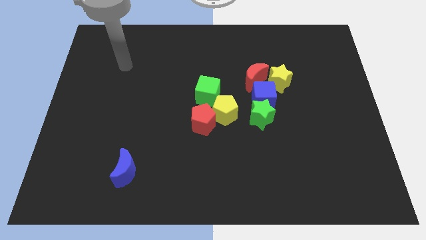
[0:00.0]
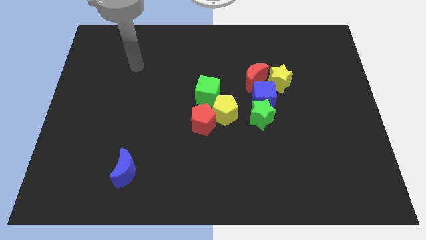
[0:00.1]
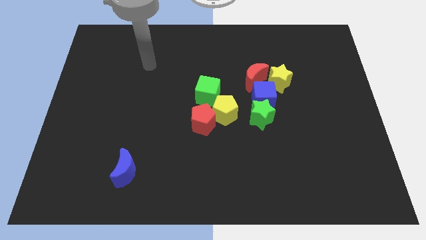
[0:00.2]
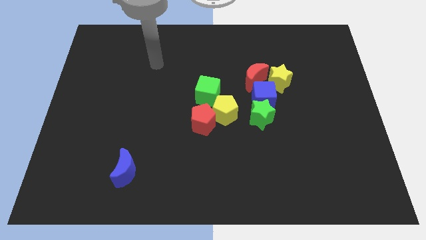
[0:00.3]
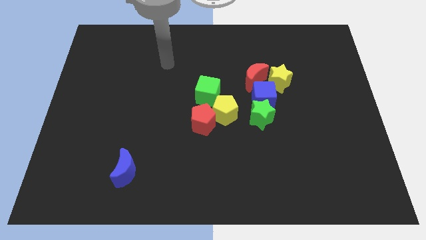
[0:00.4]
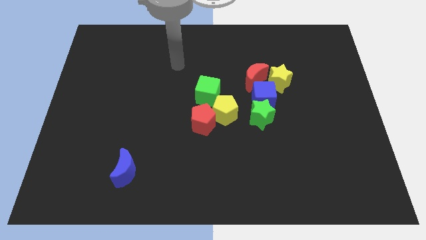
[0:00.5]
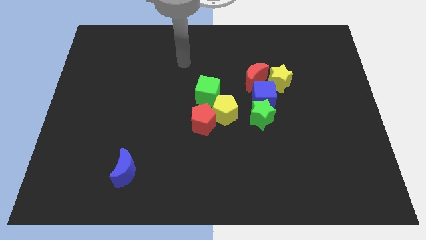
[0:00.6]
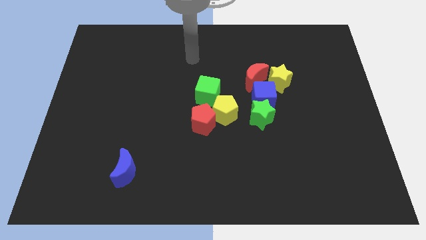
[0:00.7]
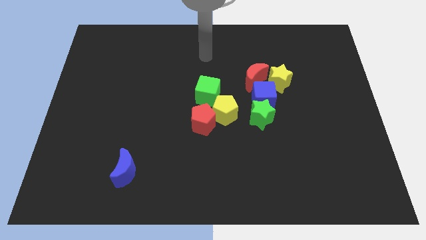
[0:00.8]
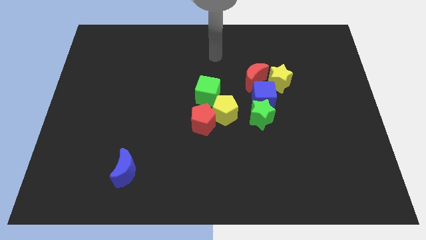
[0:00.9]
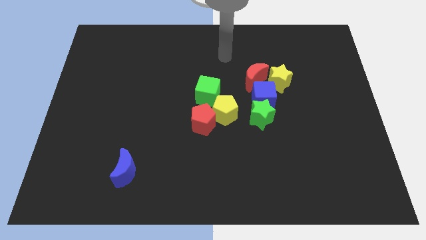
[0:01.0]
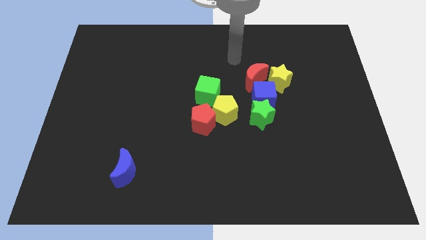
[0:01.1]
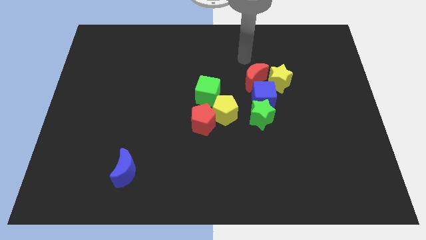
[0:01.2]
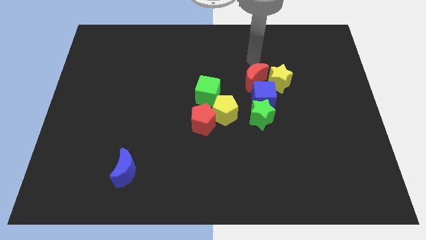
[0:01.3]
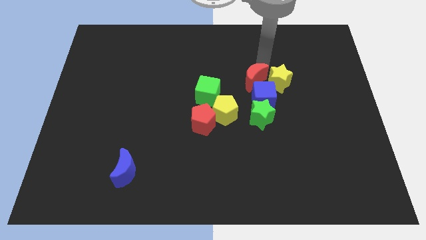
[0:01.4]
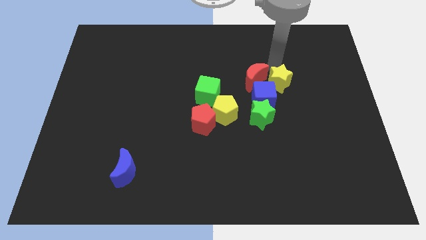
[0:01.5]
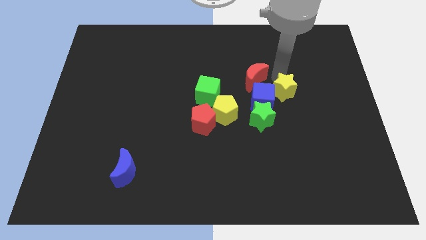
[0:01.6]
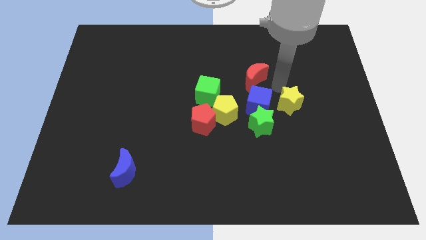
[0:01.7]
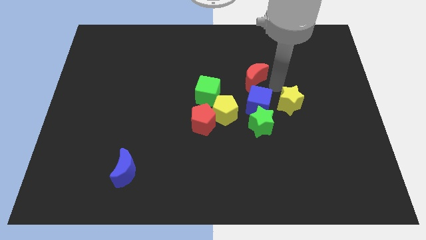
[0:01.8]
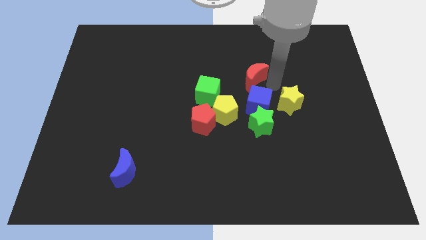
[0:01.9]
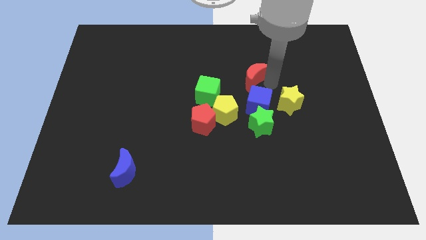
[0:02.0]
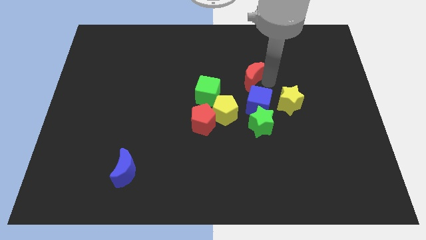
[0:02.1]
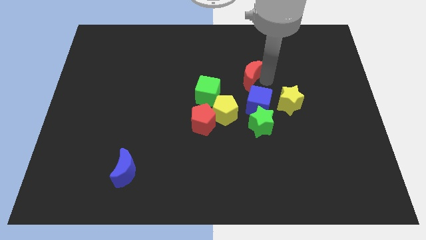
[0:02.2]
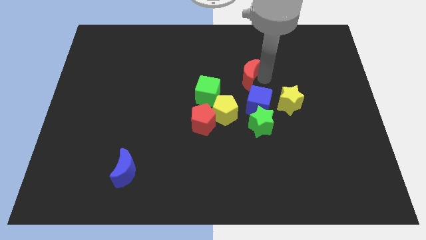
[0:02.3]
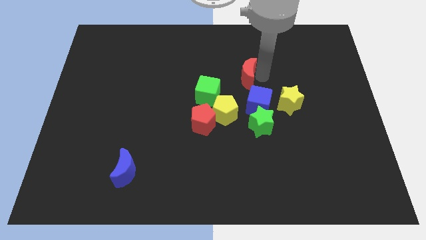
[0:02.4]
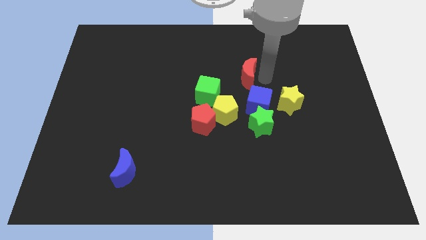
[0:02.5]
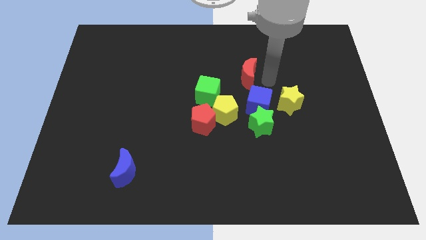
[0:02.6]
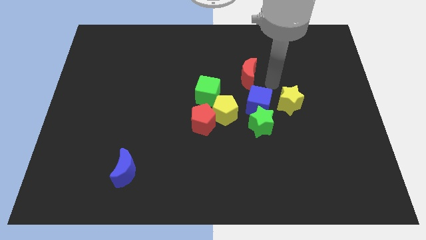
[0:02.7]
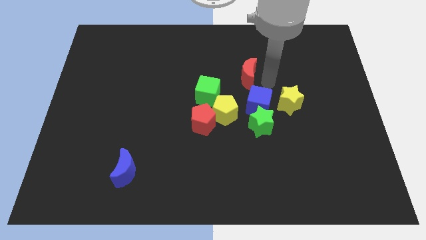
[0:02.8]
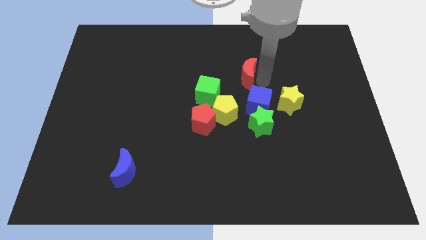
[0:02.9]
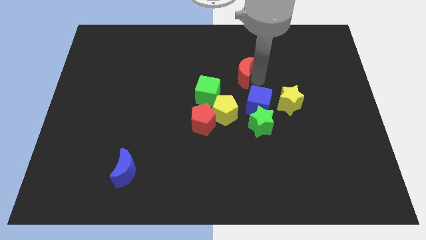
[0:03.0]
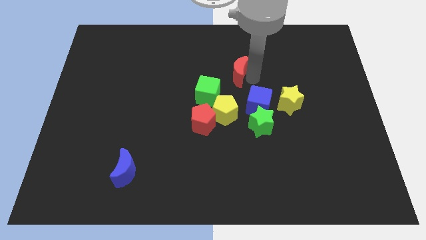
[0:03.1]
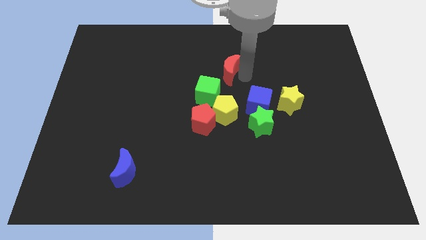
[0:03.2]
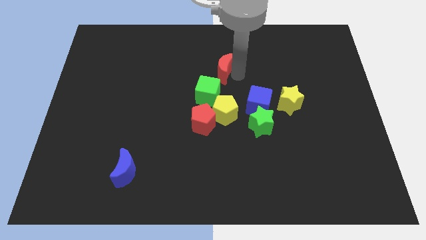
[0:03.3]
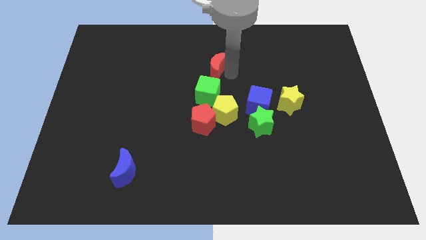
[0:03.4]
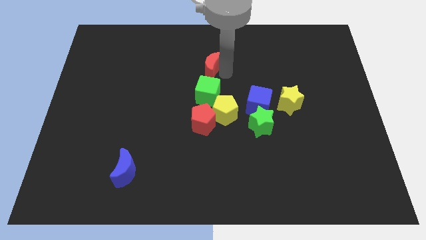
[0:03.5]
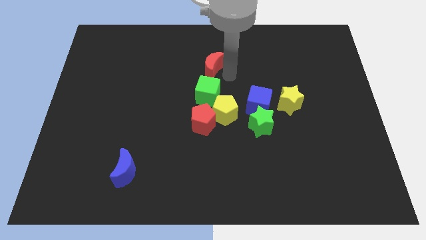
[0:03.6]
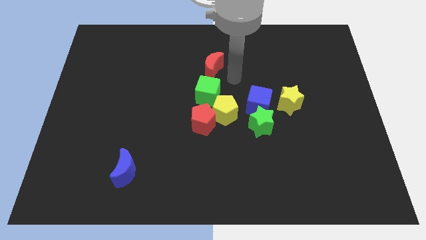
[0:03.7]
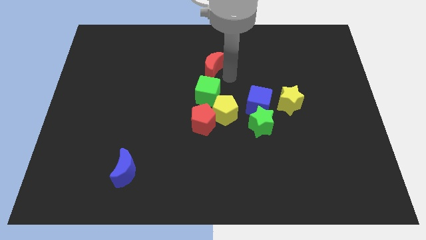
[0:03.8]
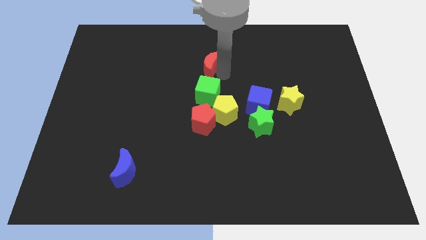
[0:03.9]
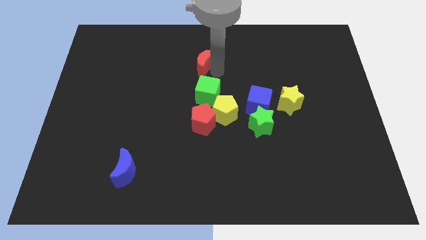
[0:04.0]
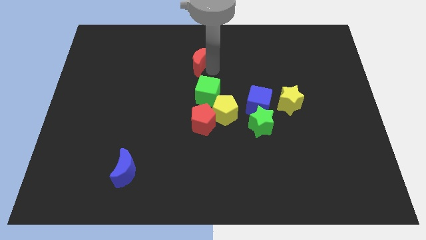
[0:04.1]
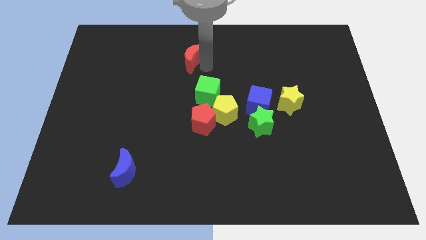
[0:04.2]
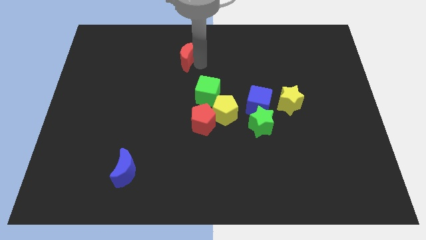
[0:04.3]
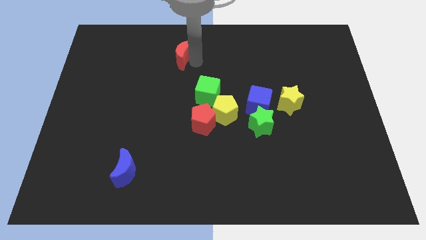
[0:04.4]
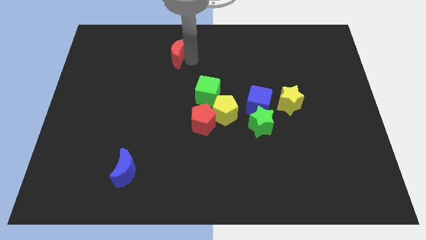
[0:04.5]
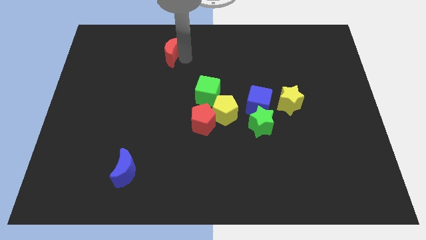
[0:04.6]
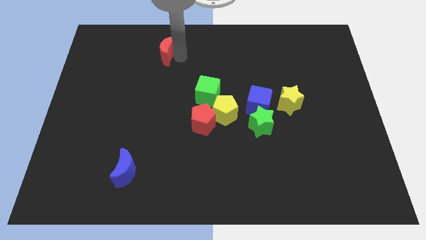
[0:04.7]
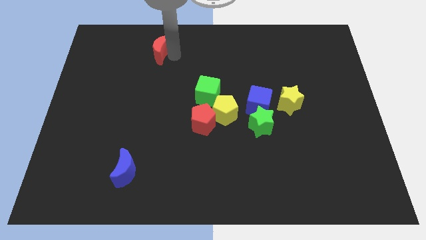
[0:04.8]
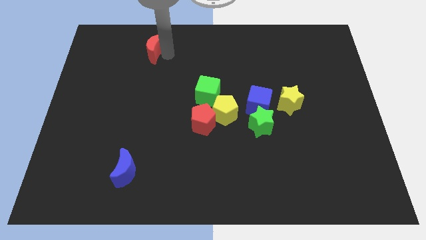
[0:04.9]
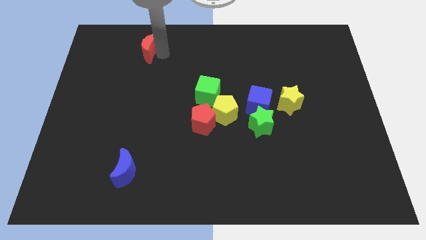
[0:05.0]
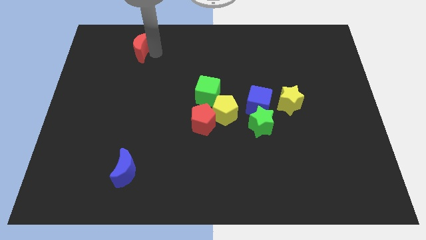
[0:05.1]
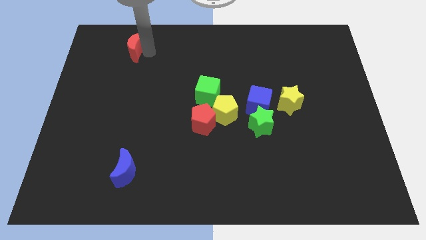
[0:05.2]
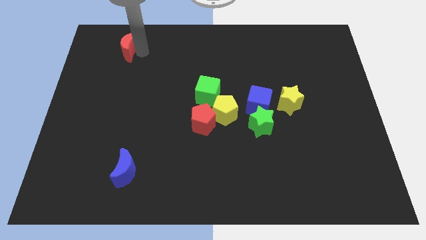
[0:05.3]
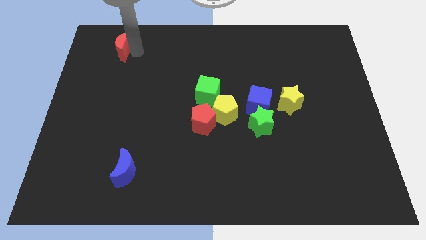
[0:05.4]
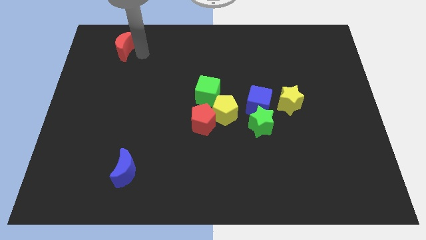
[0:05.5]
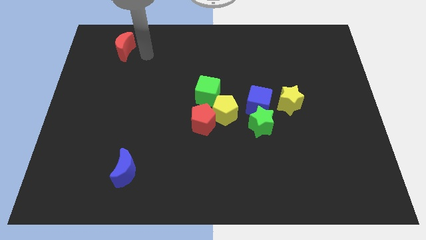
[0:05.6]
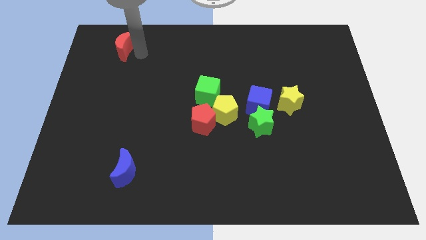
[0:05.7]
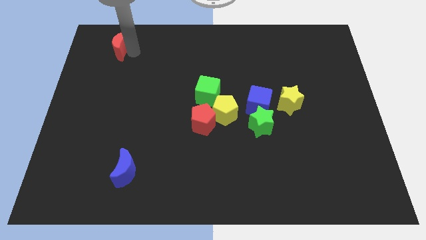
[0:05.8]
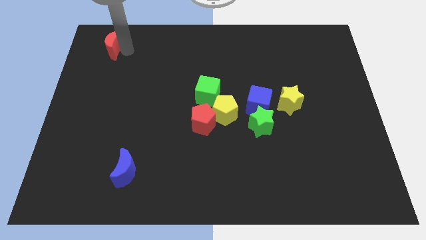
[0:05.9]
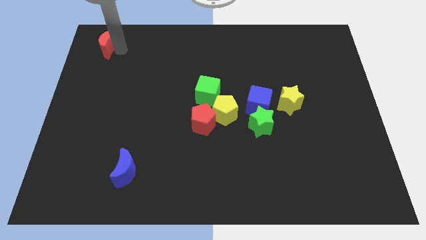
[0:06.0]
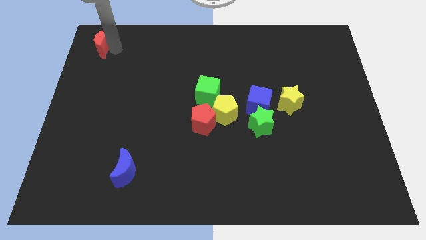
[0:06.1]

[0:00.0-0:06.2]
move the red moon to the top left

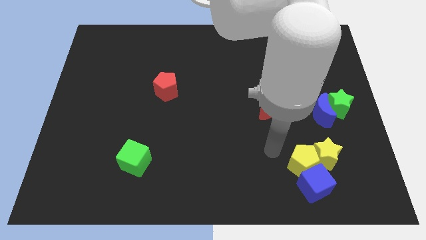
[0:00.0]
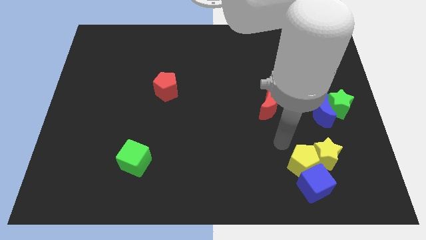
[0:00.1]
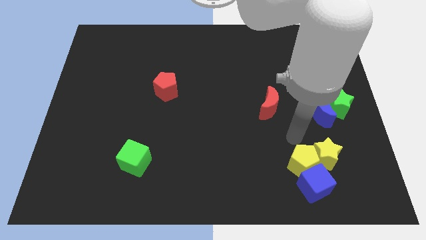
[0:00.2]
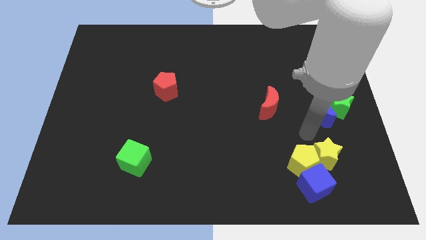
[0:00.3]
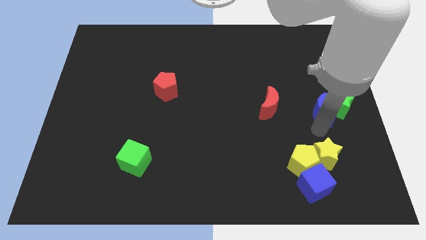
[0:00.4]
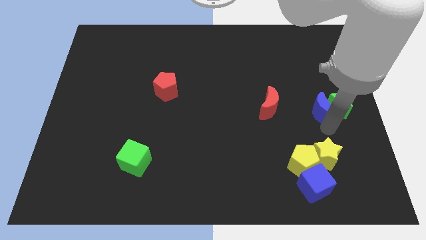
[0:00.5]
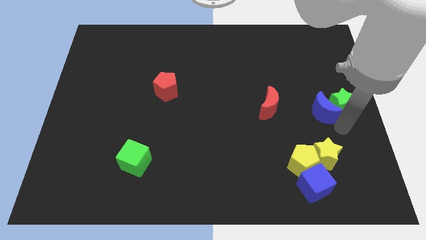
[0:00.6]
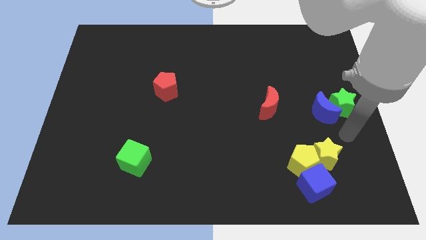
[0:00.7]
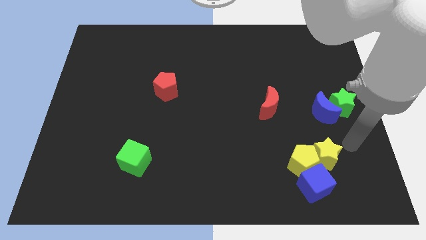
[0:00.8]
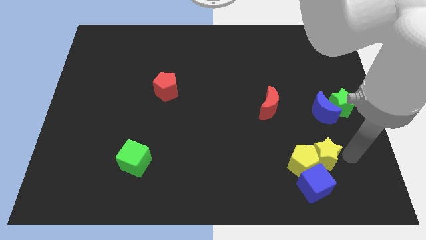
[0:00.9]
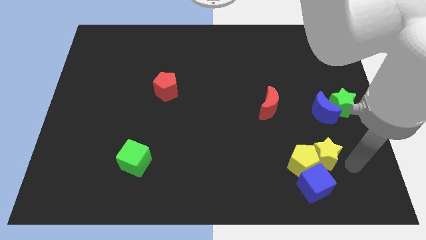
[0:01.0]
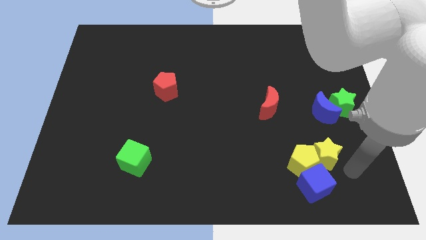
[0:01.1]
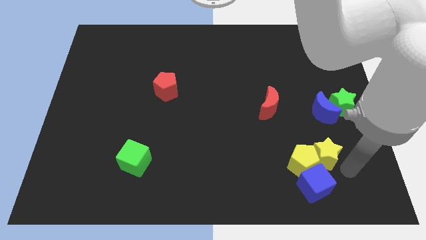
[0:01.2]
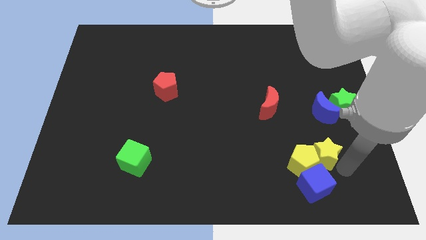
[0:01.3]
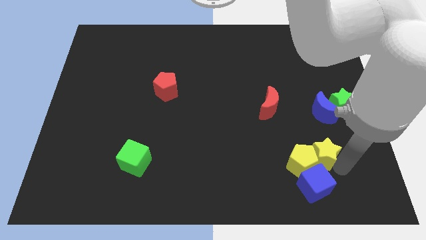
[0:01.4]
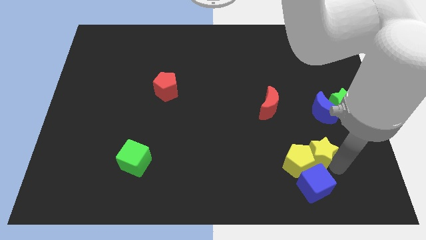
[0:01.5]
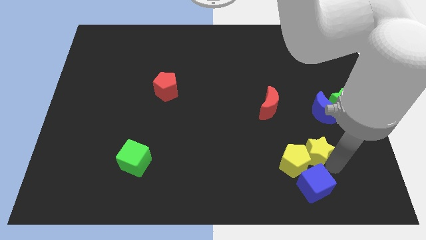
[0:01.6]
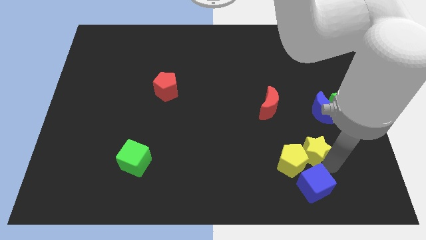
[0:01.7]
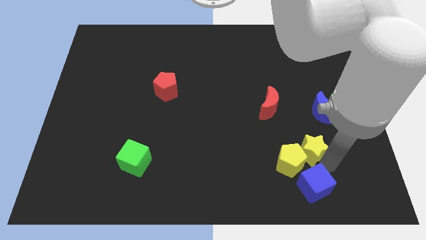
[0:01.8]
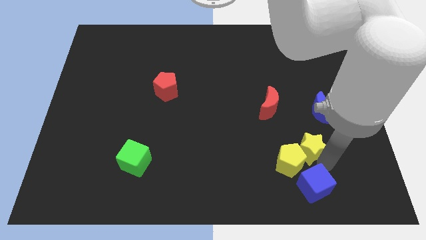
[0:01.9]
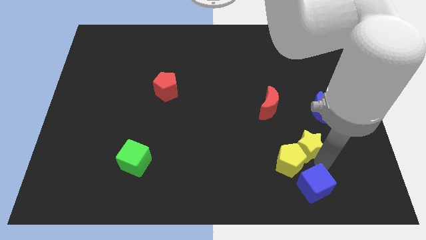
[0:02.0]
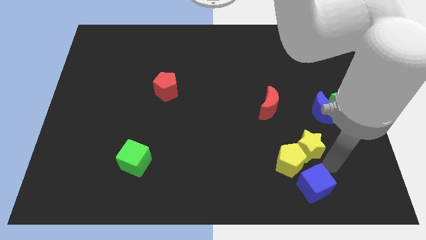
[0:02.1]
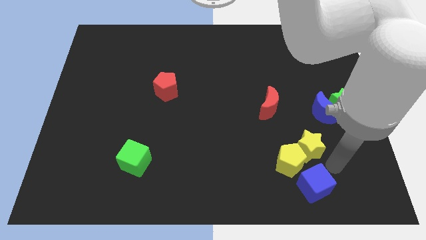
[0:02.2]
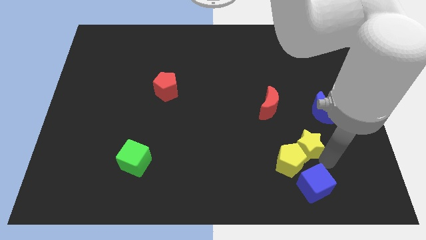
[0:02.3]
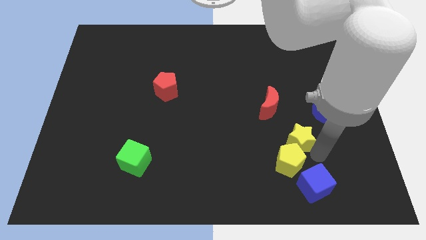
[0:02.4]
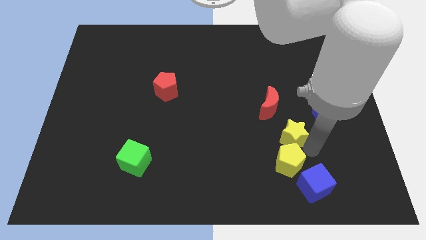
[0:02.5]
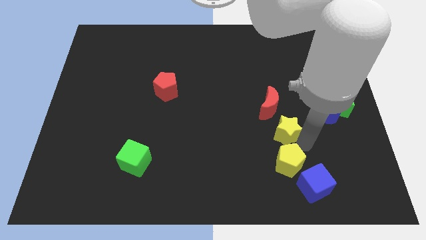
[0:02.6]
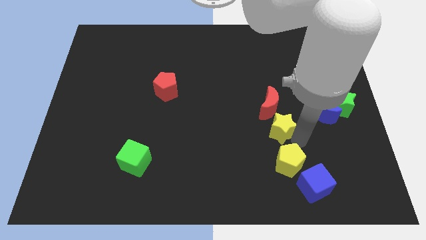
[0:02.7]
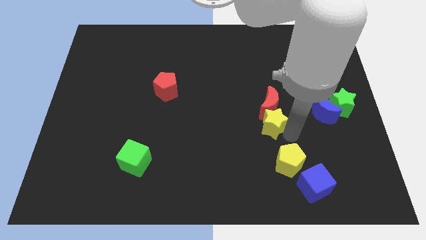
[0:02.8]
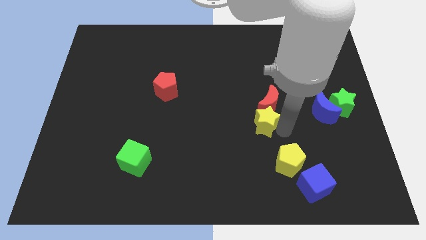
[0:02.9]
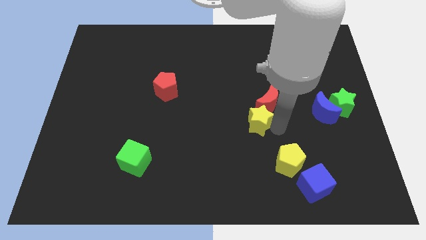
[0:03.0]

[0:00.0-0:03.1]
push the yellow star to the middle
